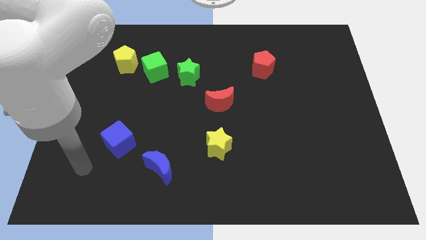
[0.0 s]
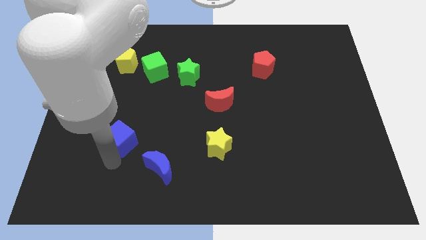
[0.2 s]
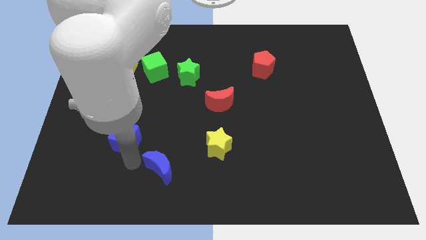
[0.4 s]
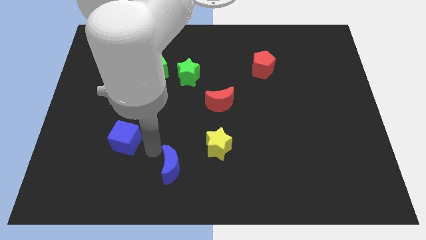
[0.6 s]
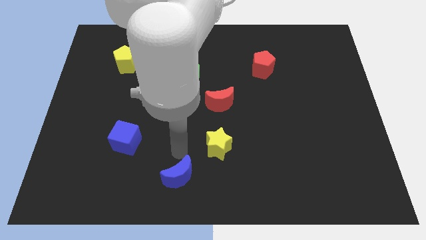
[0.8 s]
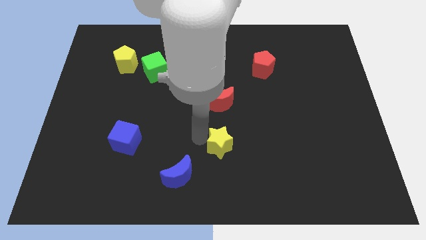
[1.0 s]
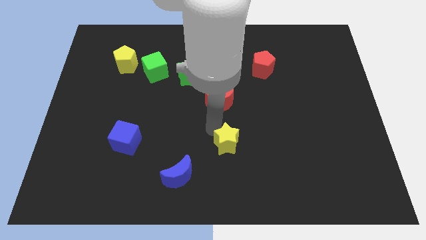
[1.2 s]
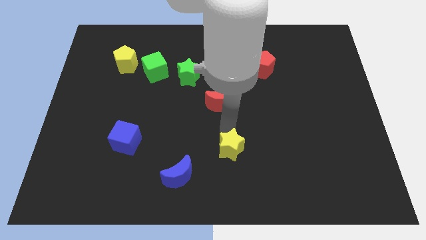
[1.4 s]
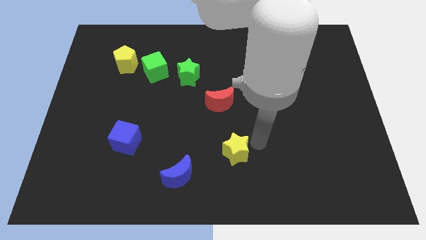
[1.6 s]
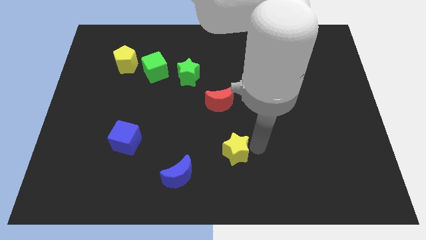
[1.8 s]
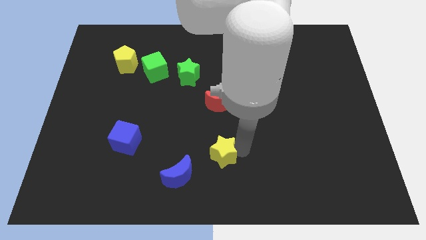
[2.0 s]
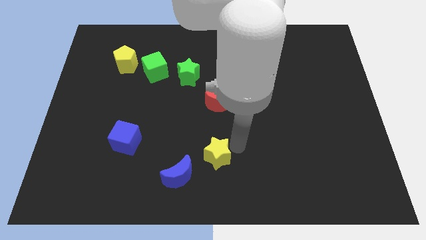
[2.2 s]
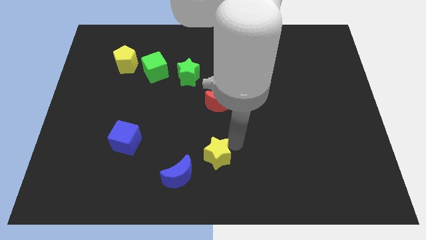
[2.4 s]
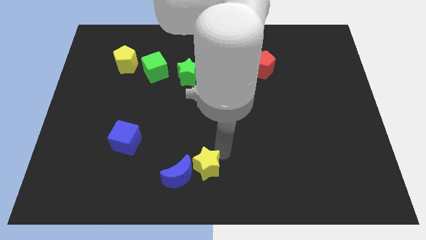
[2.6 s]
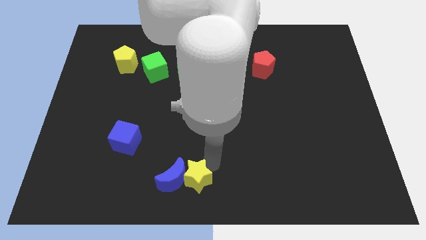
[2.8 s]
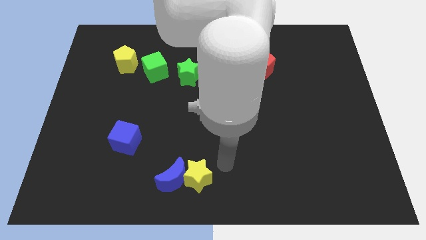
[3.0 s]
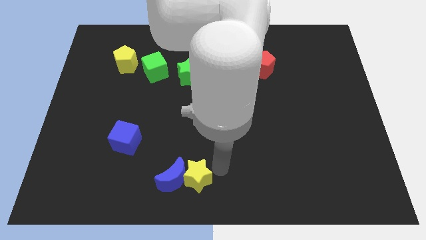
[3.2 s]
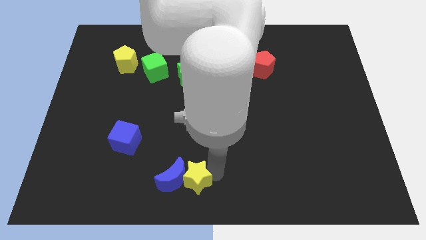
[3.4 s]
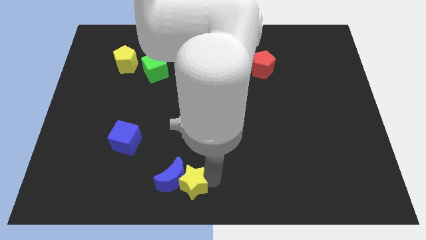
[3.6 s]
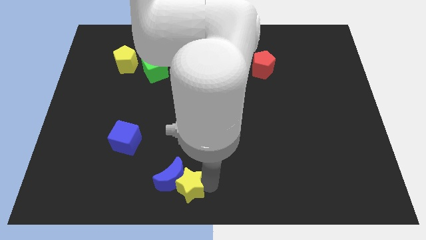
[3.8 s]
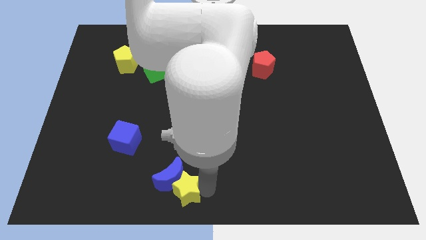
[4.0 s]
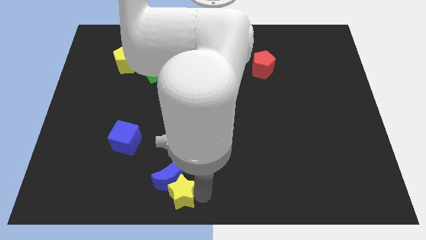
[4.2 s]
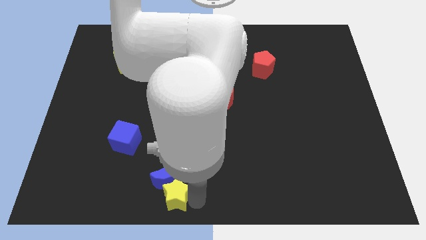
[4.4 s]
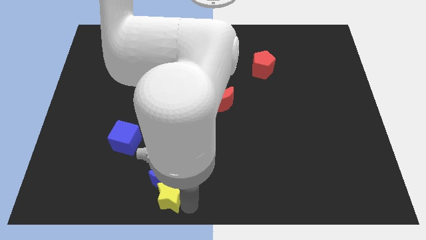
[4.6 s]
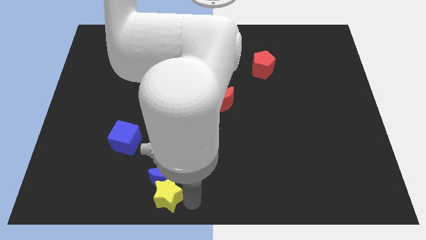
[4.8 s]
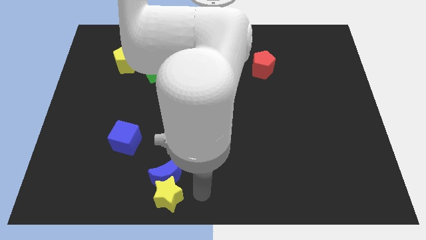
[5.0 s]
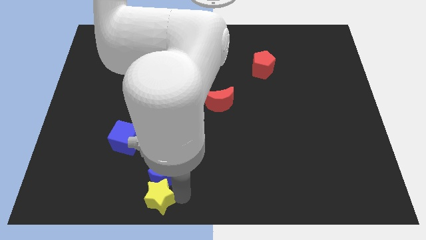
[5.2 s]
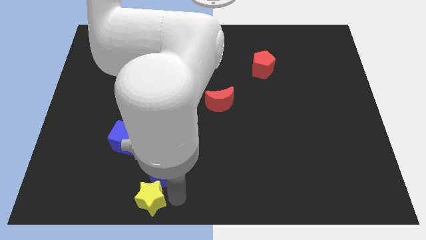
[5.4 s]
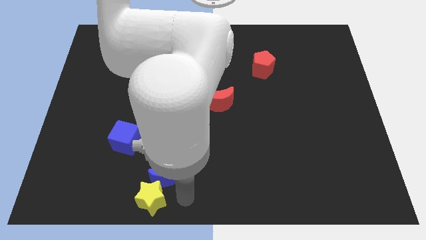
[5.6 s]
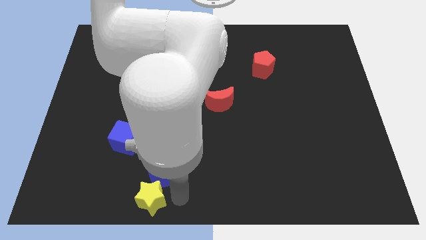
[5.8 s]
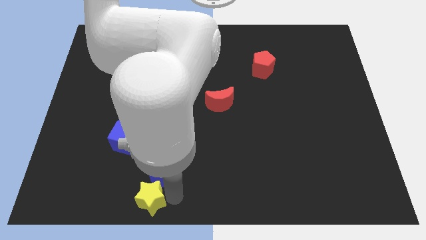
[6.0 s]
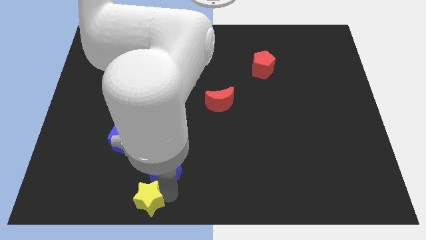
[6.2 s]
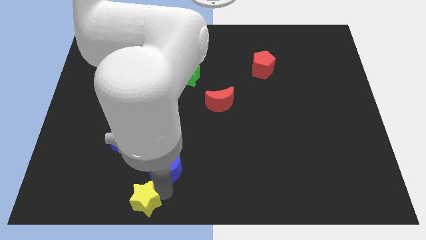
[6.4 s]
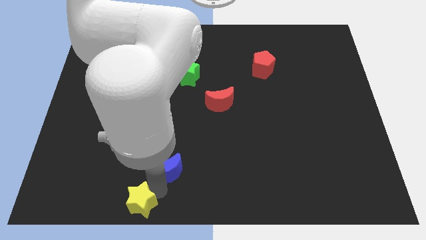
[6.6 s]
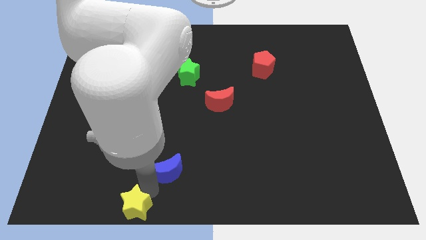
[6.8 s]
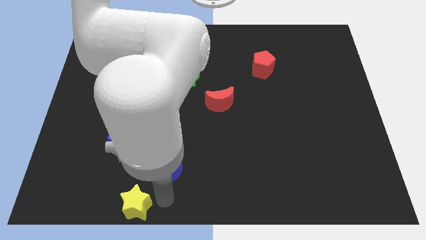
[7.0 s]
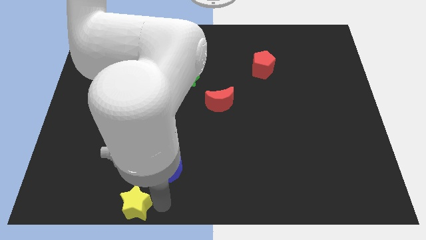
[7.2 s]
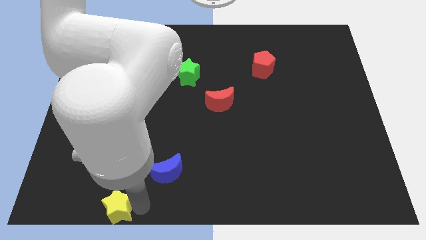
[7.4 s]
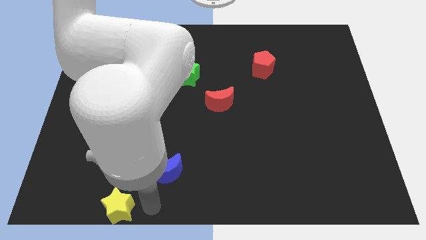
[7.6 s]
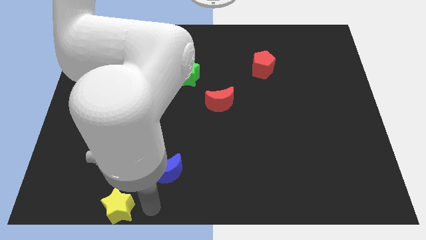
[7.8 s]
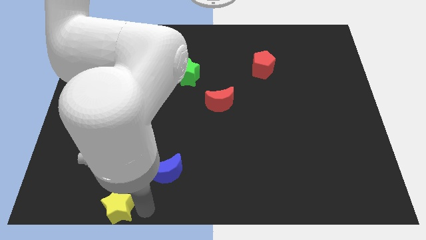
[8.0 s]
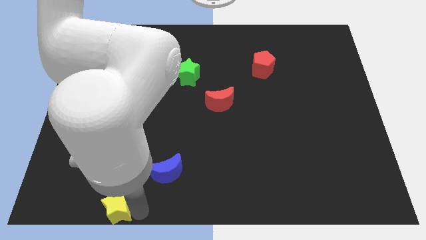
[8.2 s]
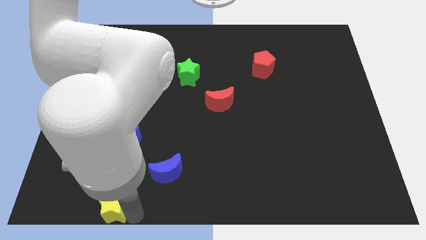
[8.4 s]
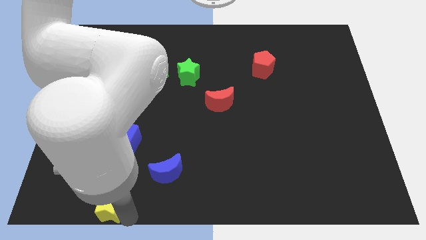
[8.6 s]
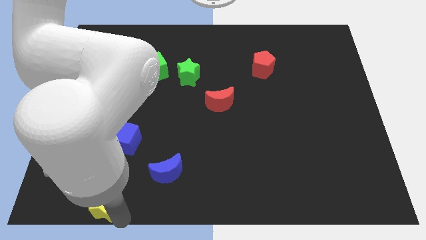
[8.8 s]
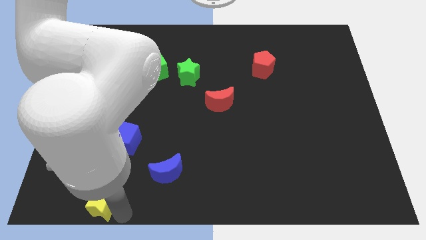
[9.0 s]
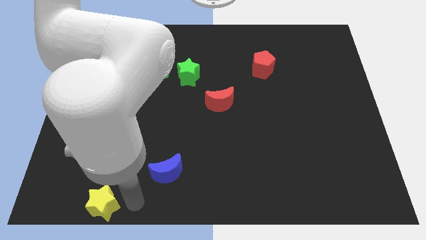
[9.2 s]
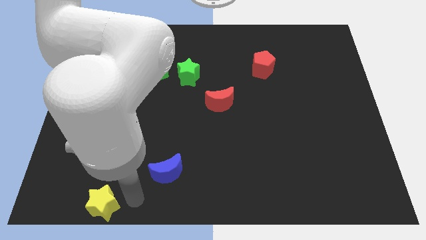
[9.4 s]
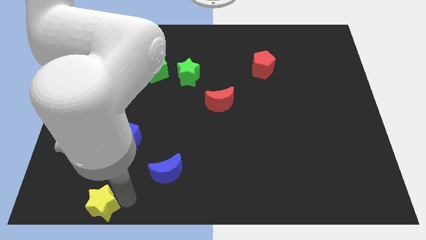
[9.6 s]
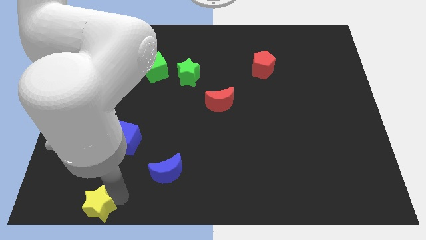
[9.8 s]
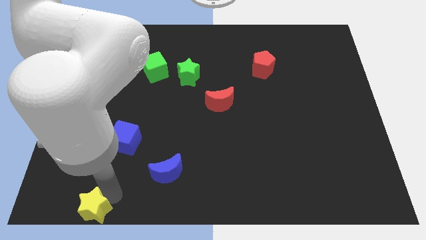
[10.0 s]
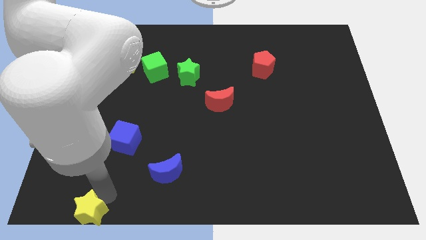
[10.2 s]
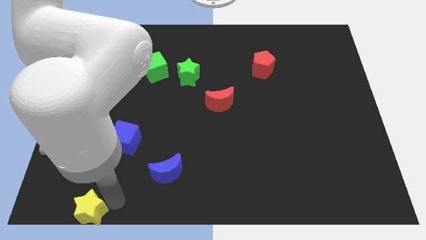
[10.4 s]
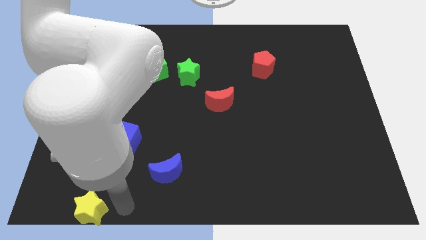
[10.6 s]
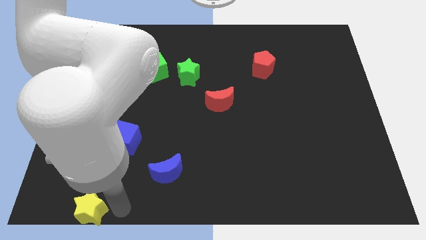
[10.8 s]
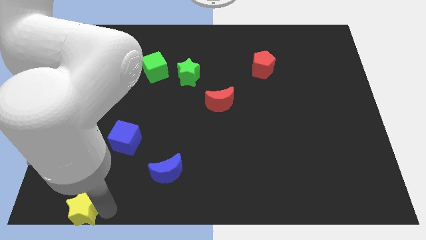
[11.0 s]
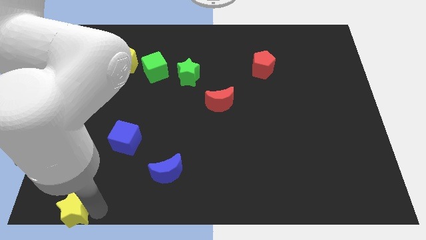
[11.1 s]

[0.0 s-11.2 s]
put the yellow star to the bottom left corner

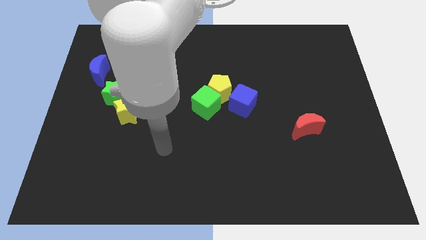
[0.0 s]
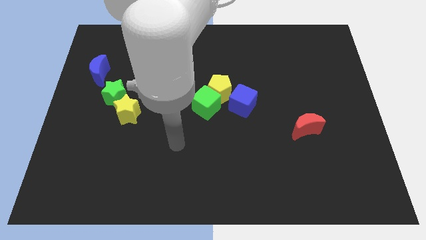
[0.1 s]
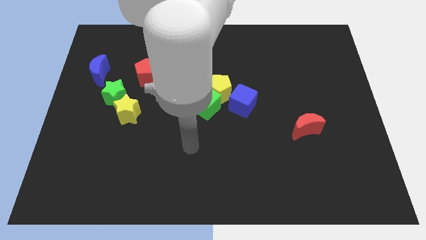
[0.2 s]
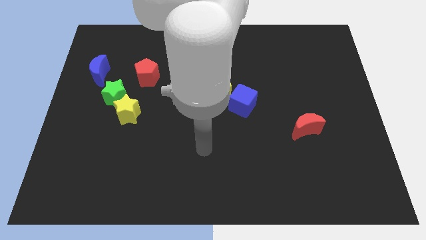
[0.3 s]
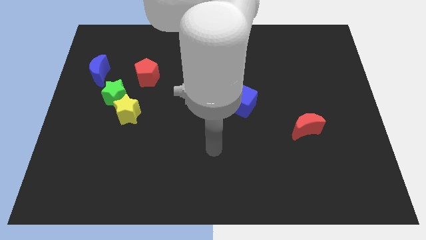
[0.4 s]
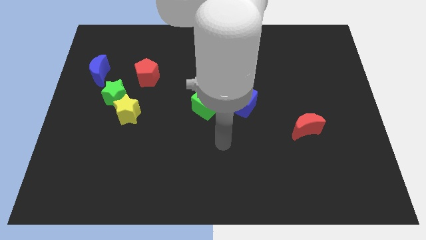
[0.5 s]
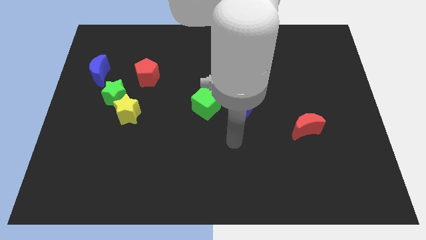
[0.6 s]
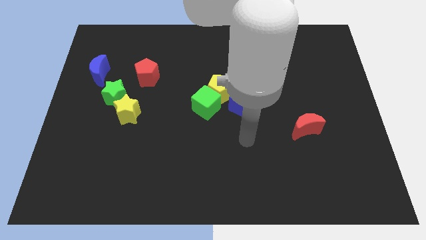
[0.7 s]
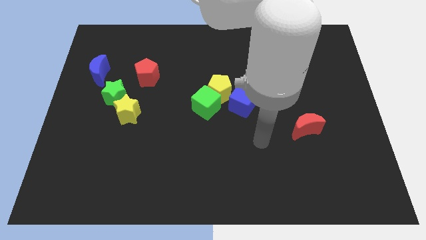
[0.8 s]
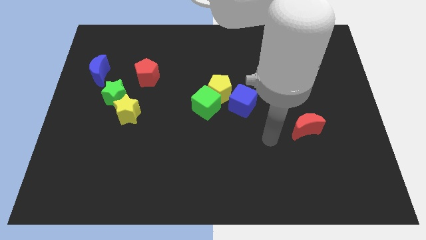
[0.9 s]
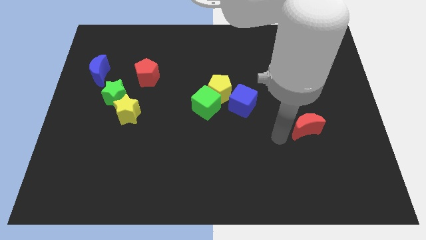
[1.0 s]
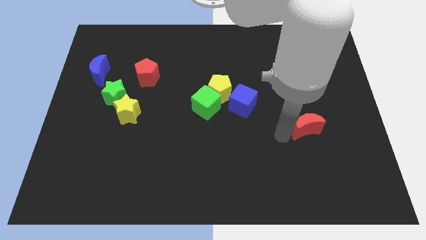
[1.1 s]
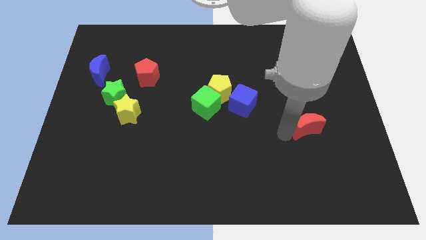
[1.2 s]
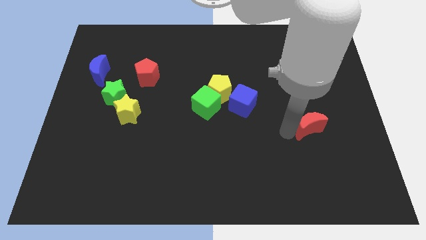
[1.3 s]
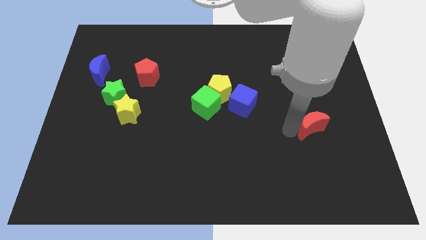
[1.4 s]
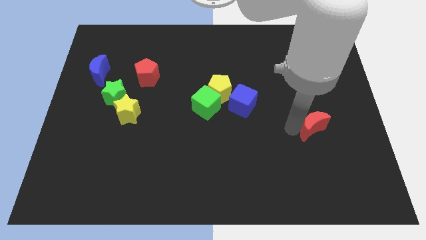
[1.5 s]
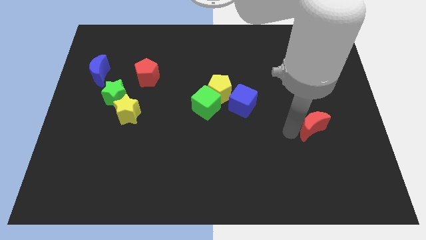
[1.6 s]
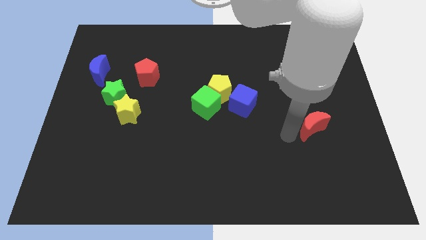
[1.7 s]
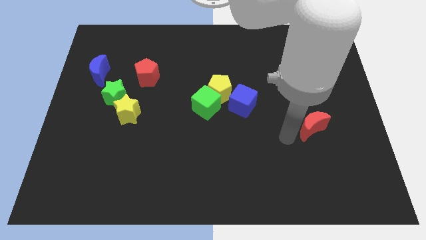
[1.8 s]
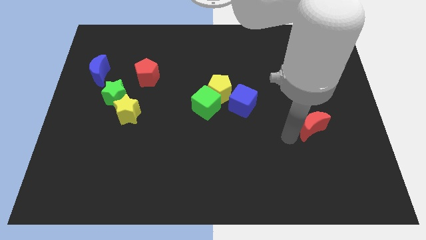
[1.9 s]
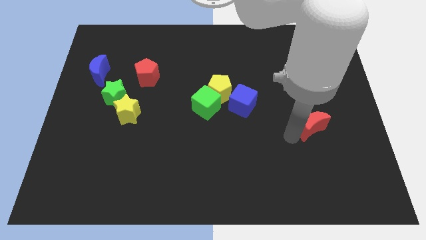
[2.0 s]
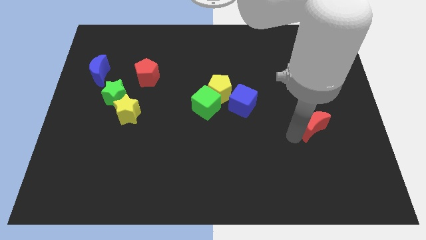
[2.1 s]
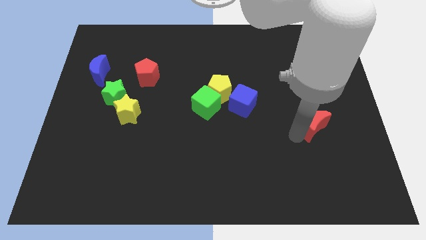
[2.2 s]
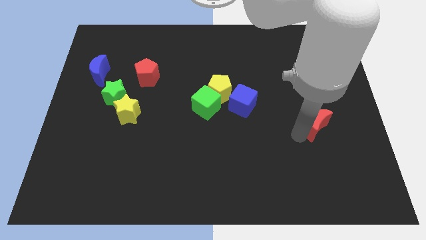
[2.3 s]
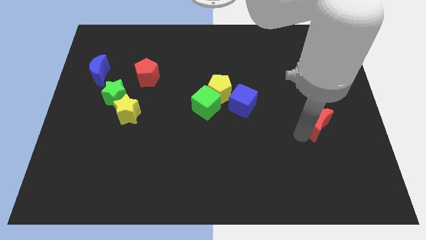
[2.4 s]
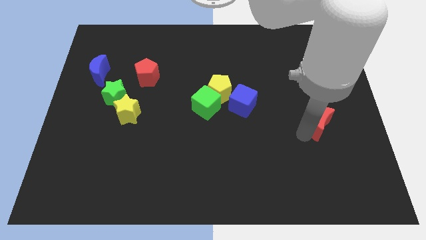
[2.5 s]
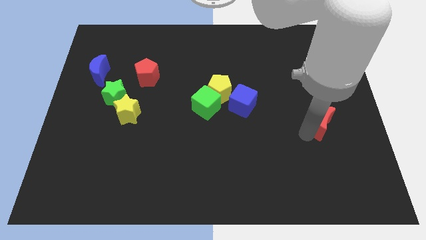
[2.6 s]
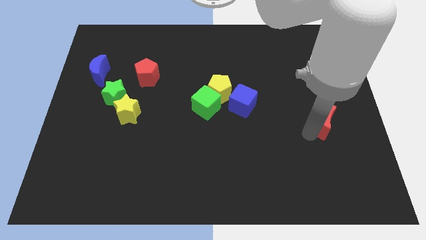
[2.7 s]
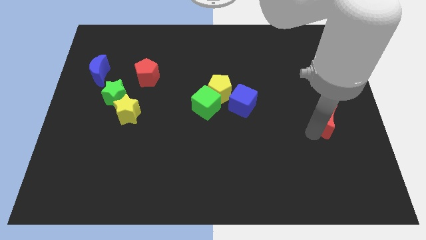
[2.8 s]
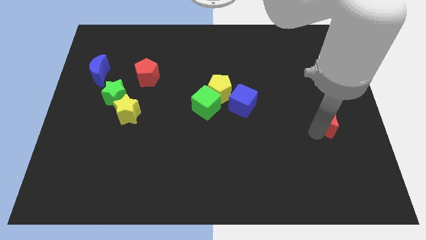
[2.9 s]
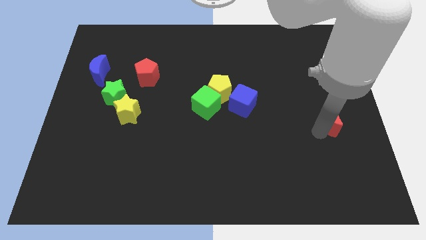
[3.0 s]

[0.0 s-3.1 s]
move the red moon to the right side of the board
